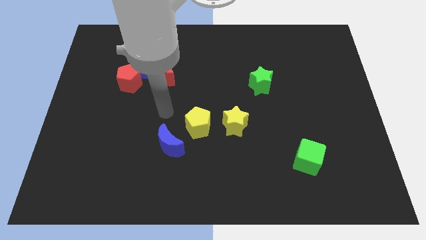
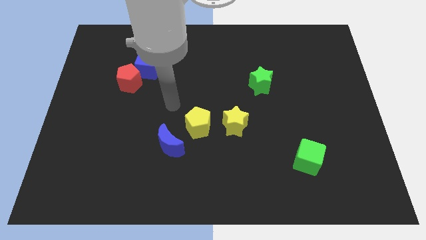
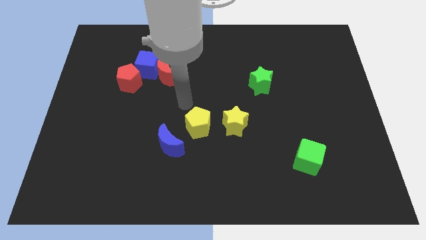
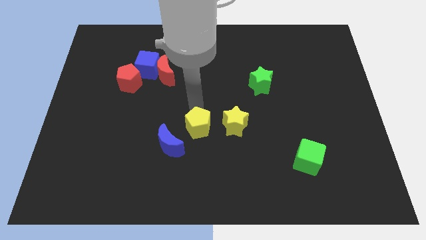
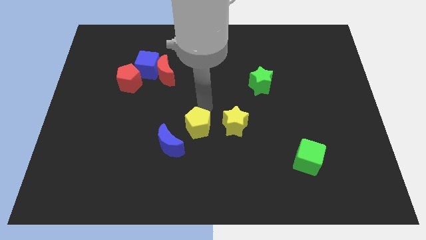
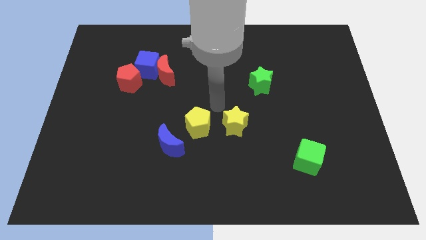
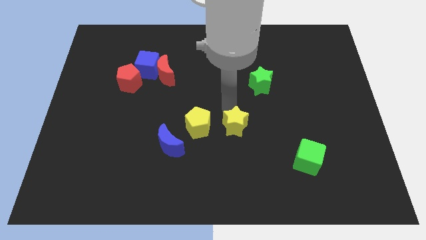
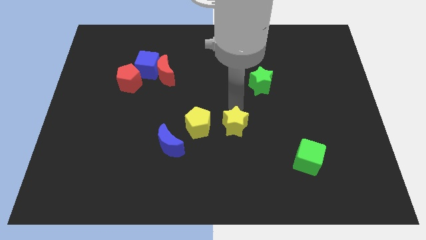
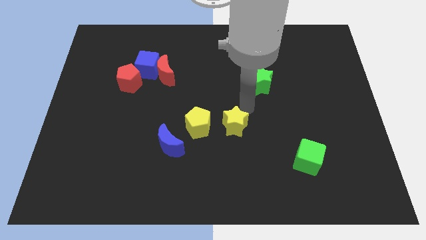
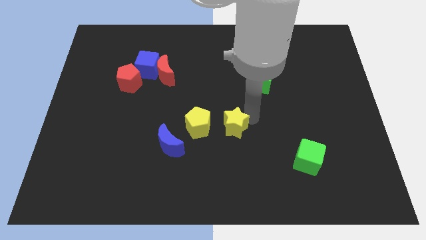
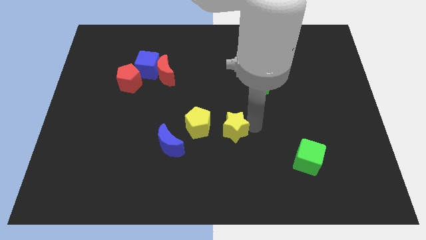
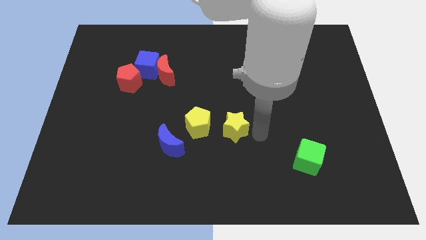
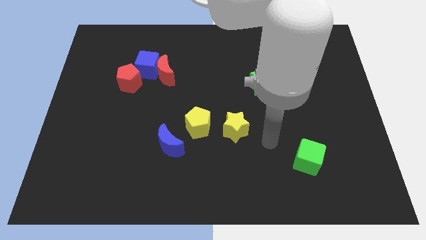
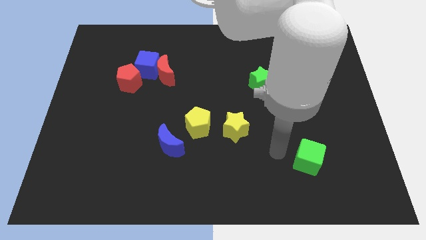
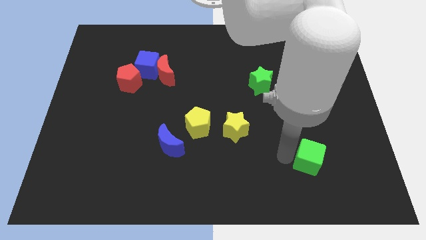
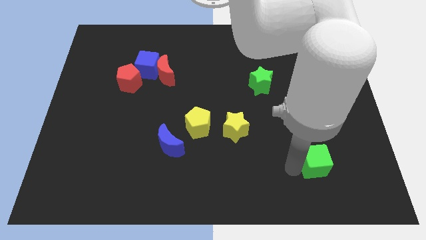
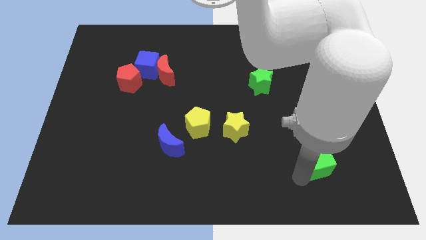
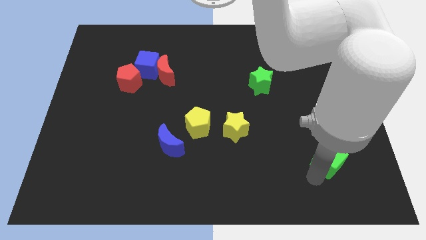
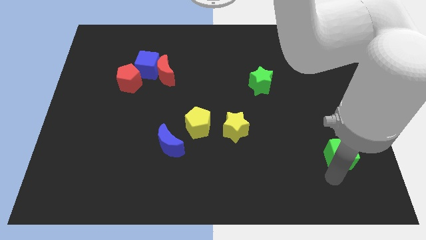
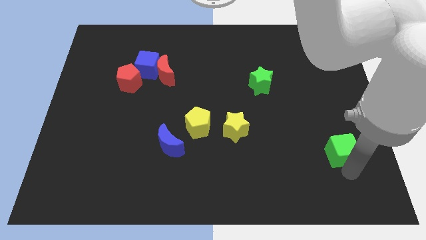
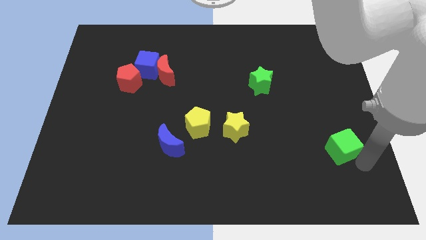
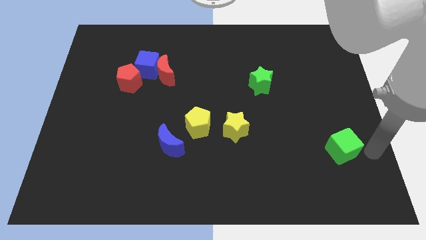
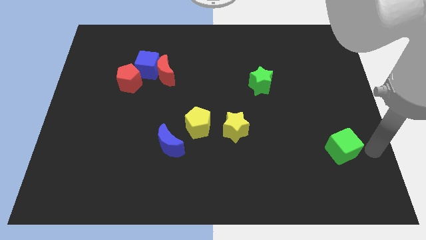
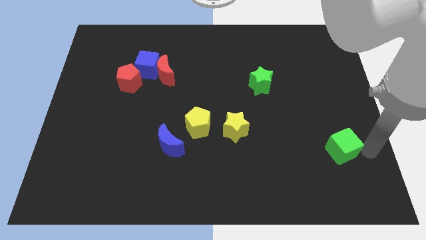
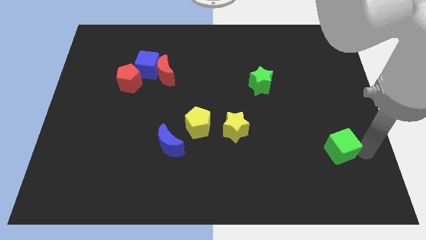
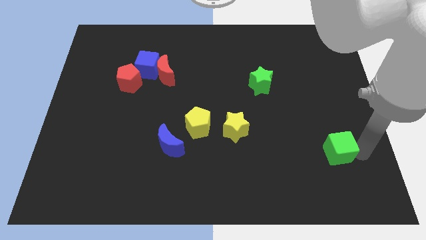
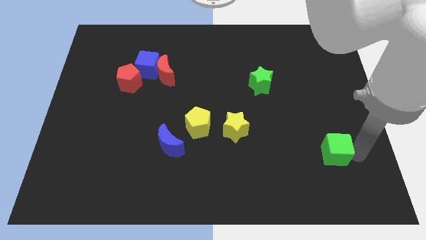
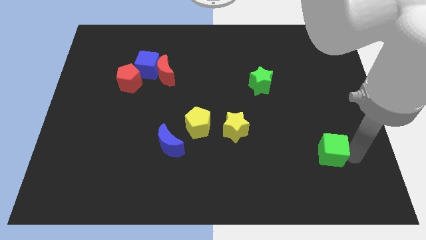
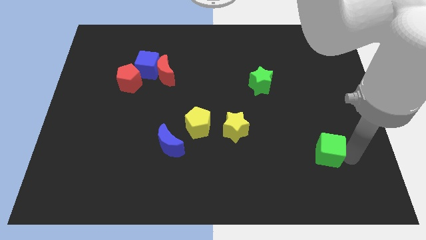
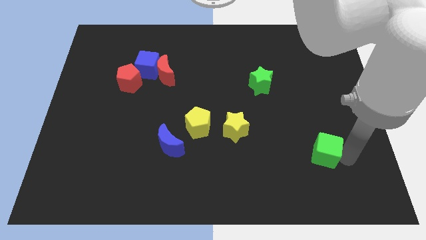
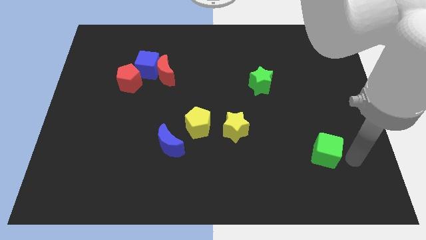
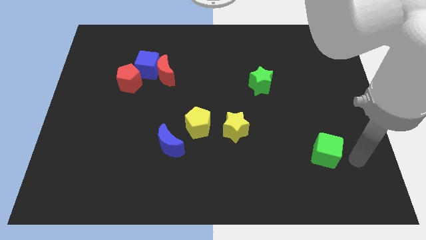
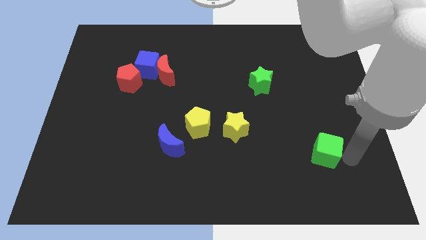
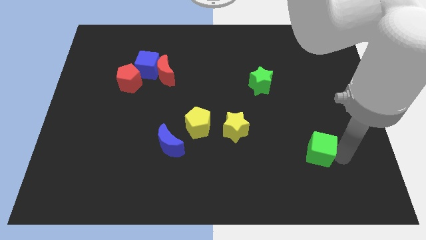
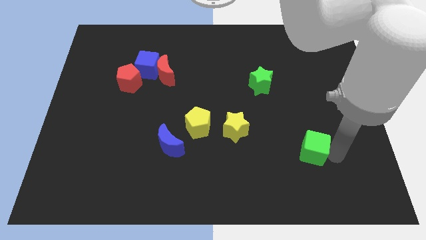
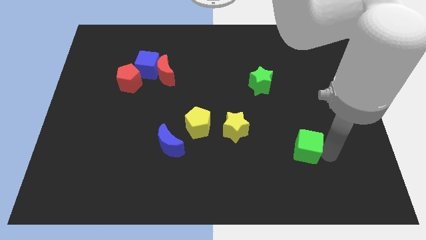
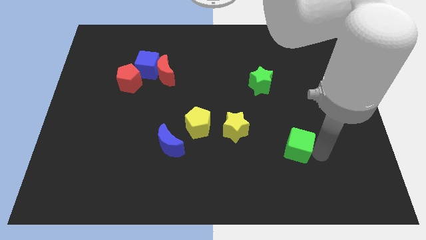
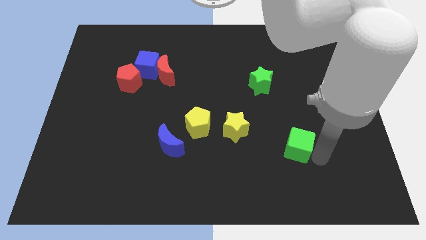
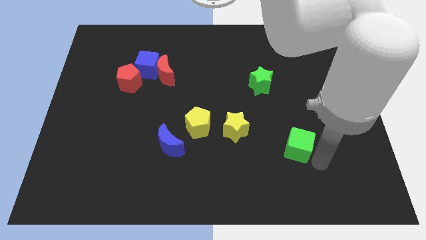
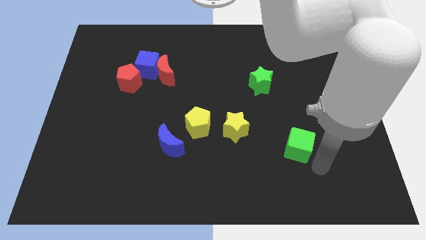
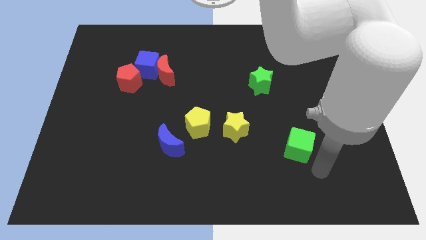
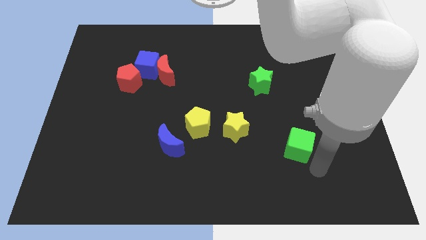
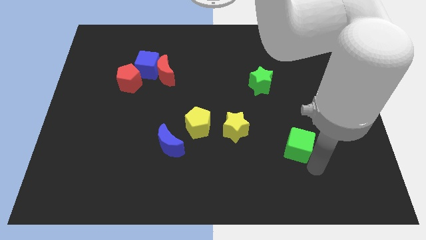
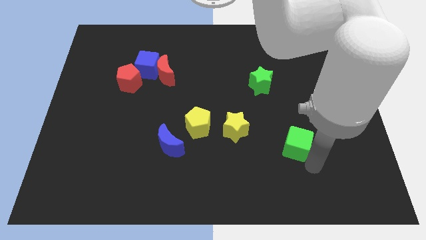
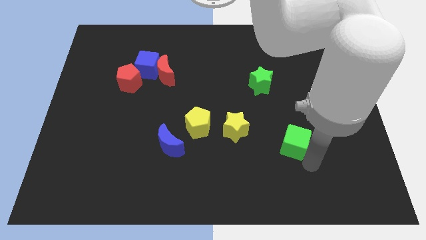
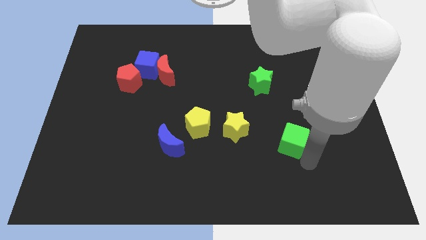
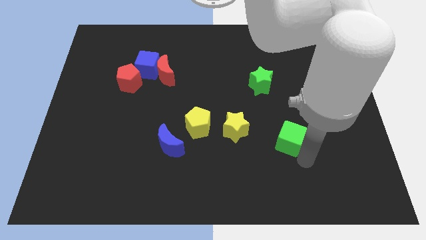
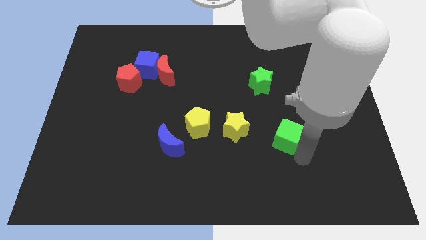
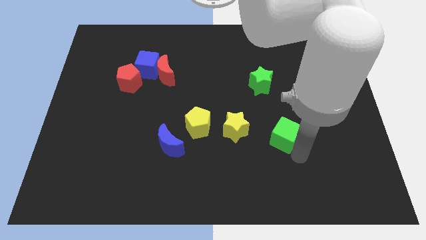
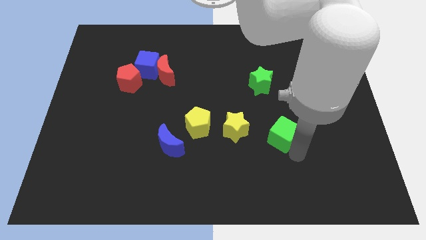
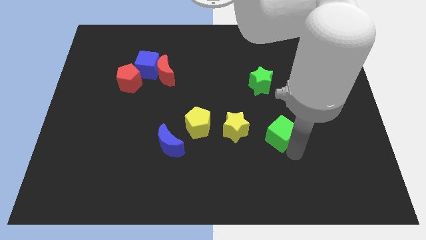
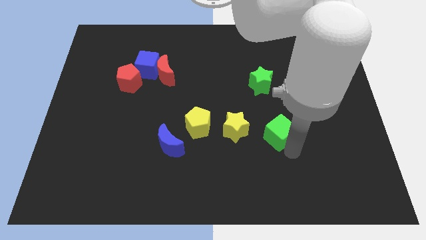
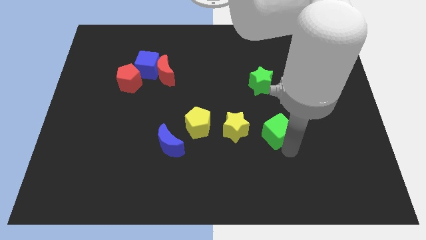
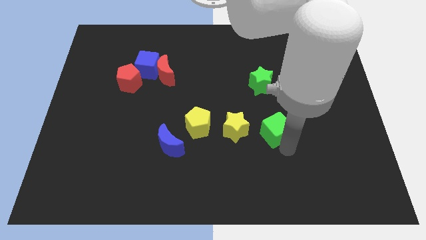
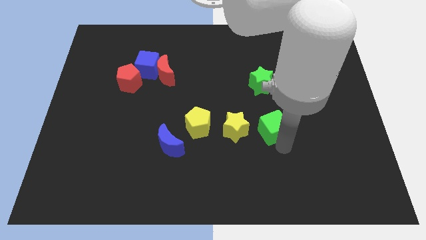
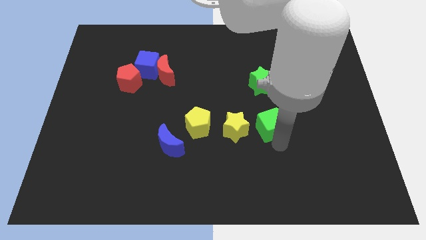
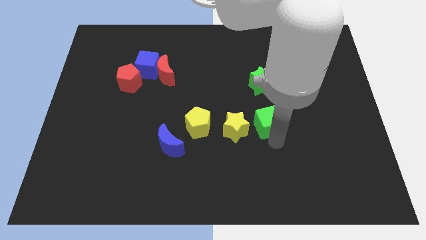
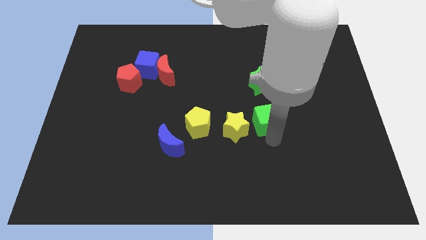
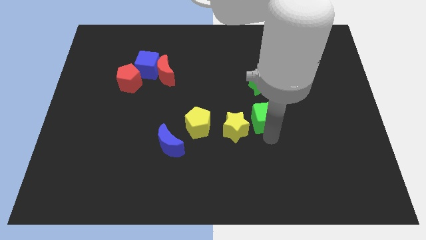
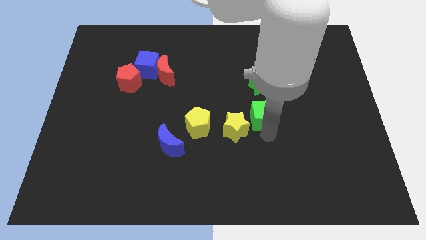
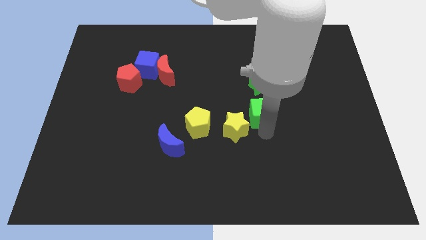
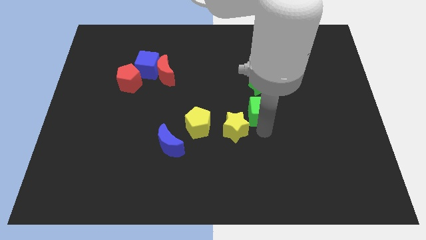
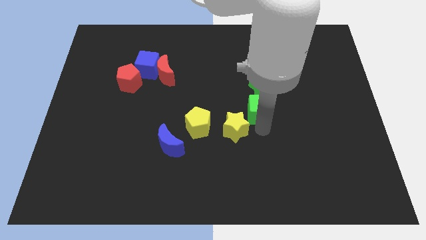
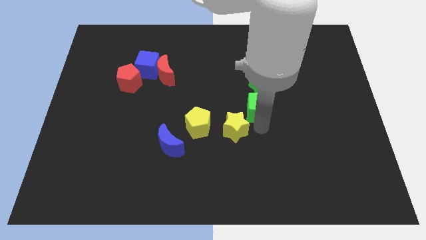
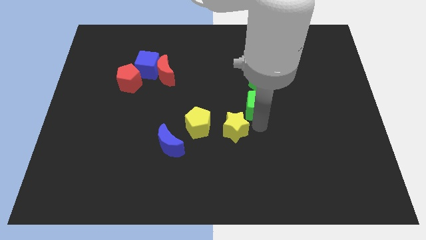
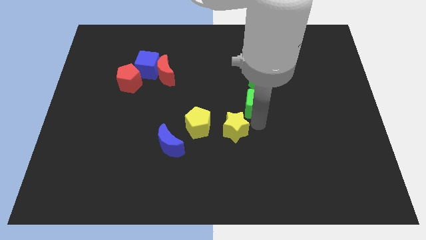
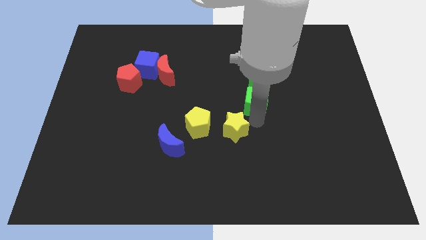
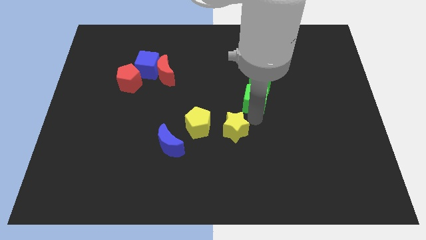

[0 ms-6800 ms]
slide the green cube next to the green star

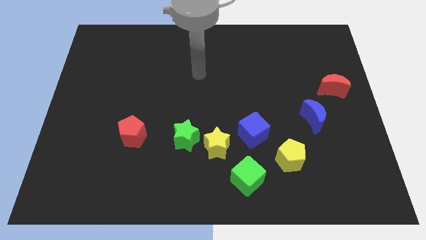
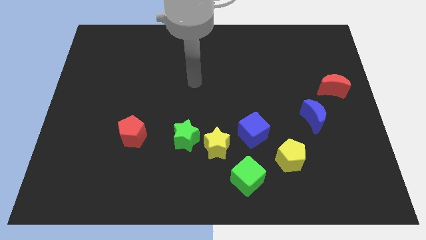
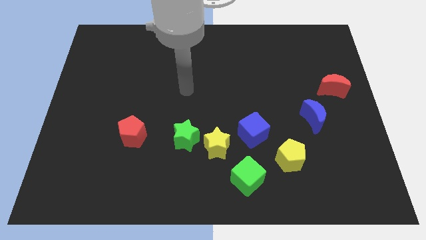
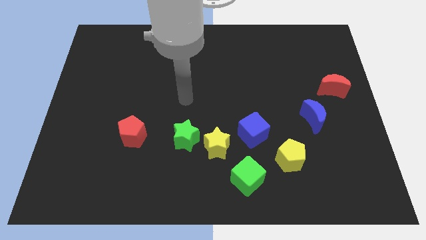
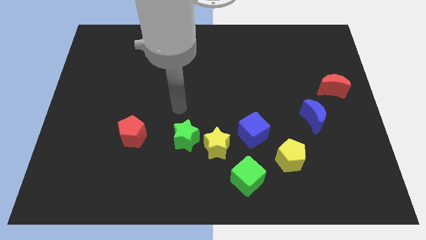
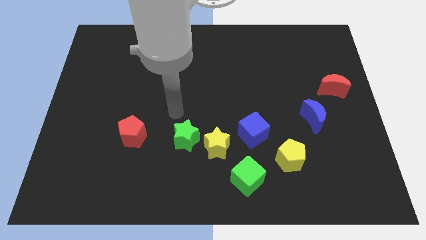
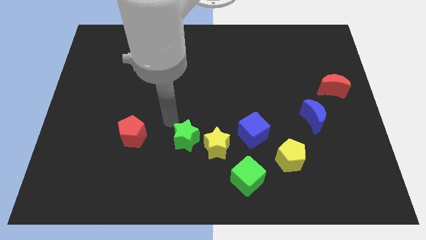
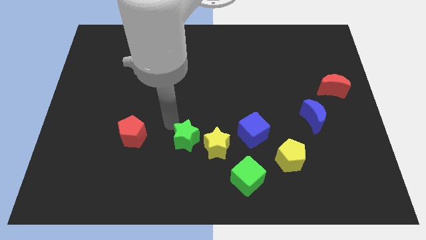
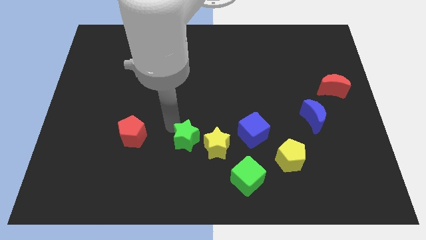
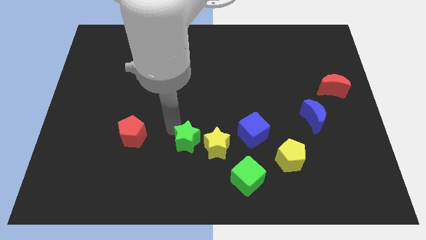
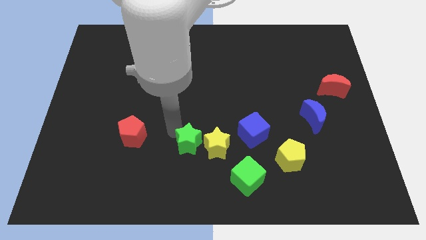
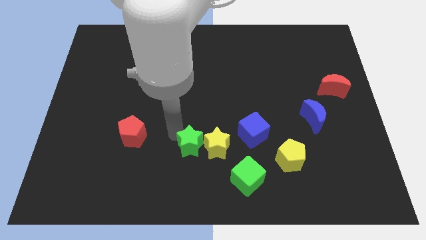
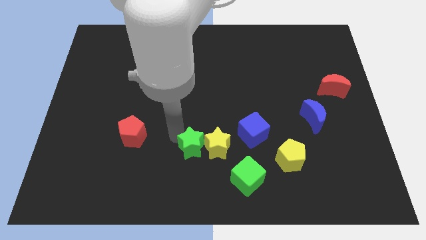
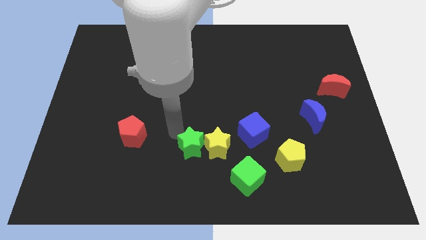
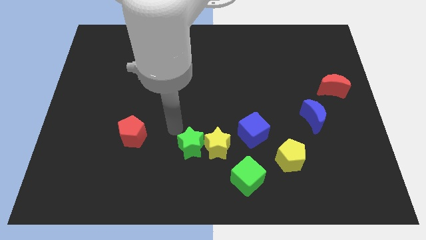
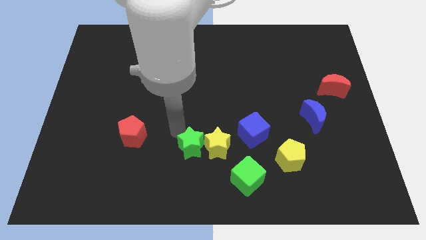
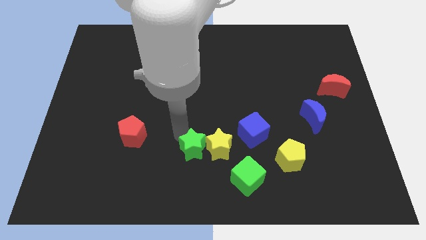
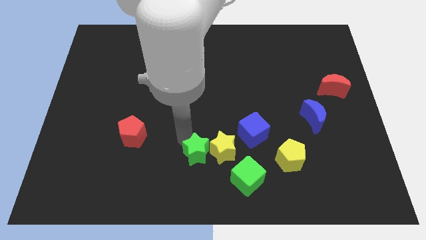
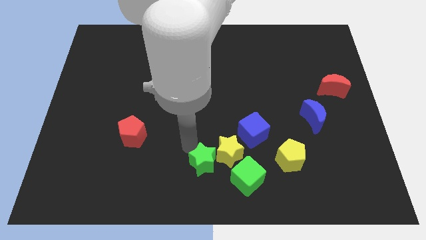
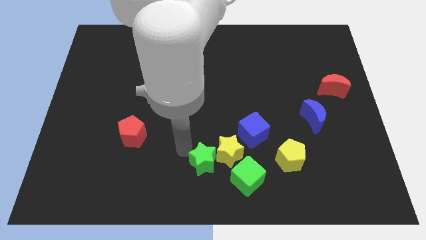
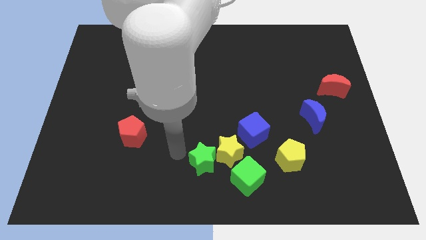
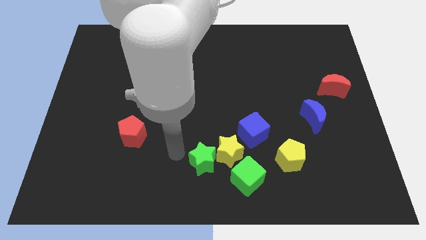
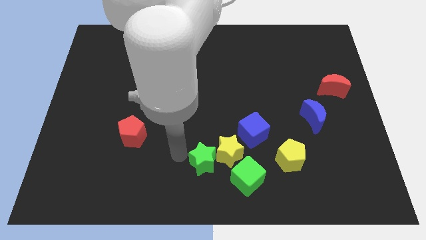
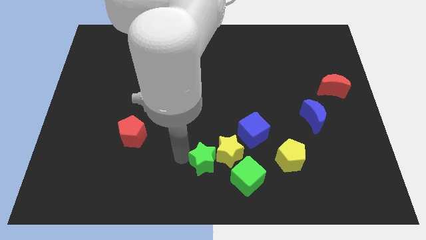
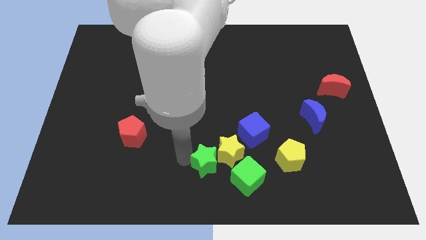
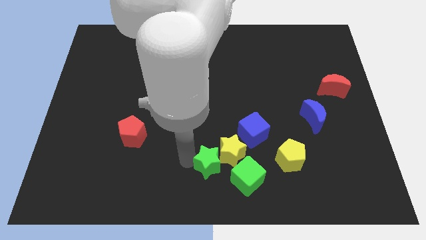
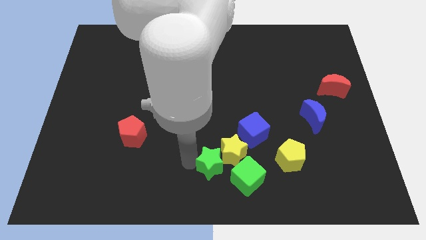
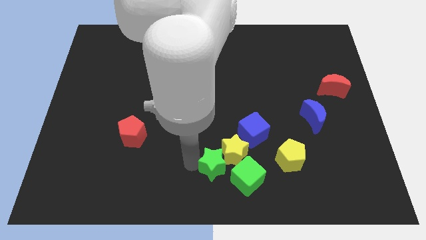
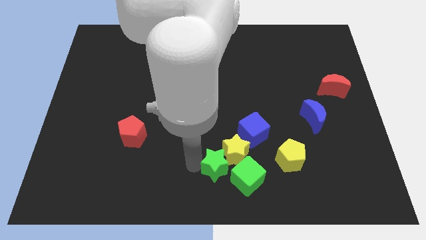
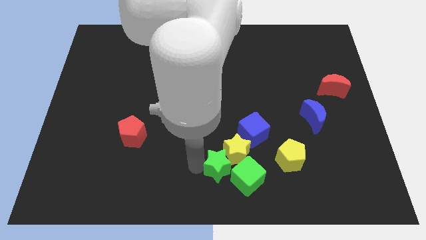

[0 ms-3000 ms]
put the green star towards the green cube
